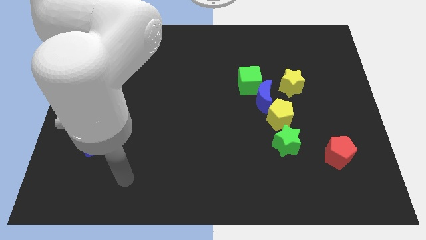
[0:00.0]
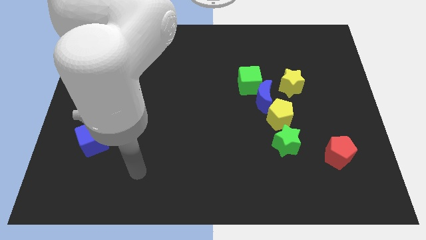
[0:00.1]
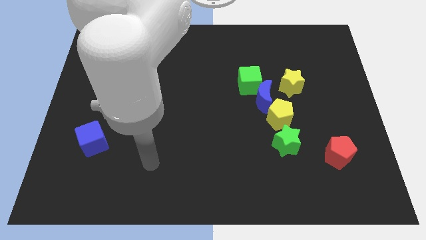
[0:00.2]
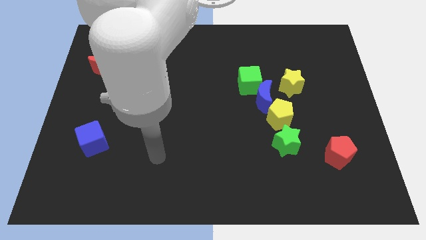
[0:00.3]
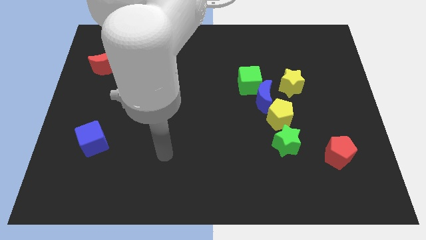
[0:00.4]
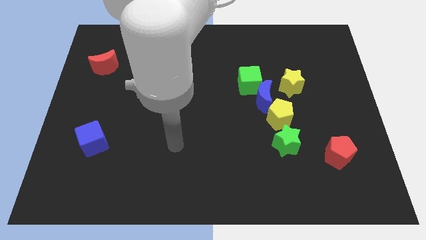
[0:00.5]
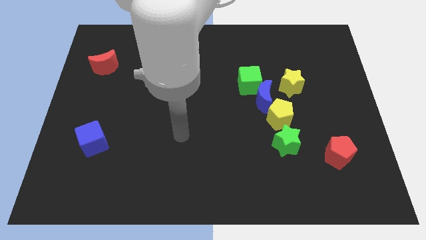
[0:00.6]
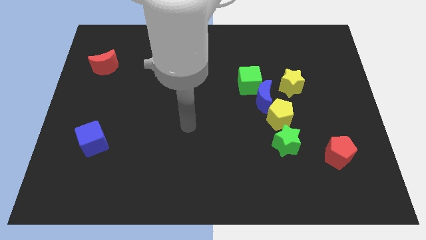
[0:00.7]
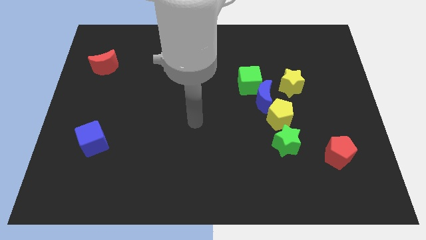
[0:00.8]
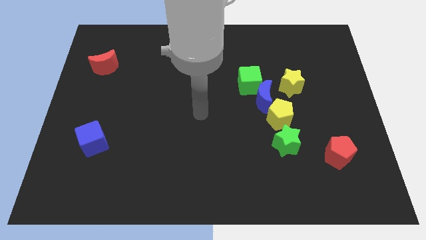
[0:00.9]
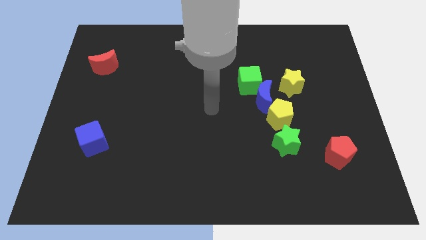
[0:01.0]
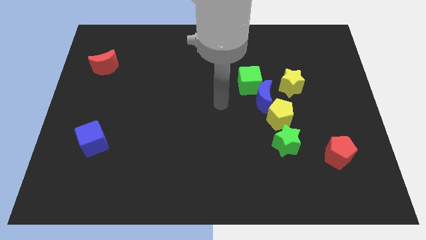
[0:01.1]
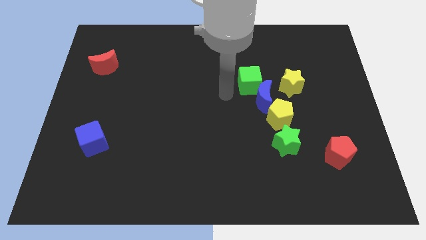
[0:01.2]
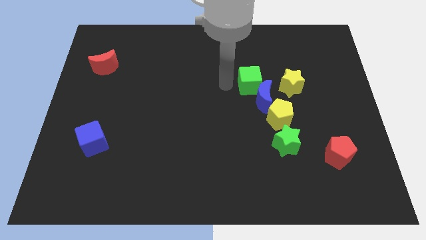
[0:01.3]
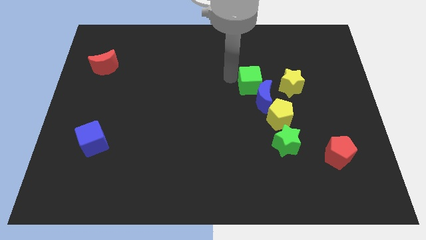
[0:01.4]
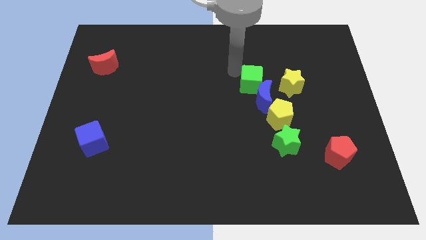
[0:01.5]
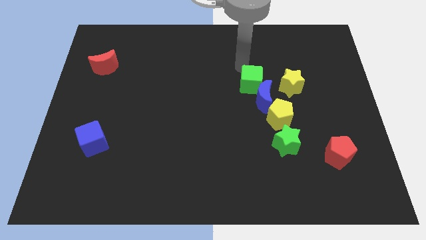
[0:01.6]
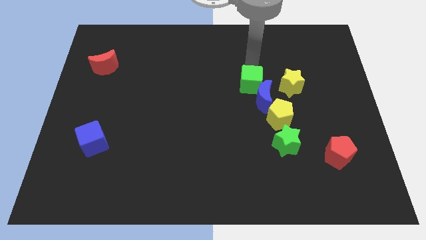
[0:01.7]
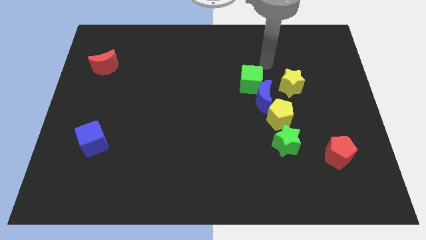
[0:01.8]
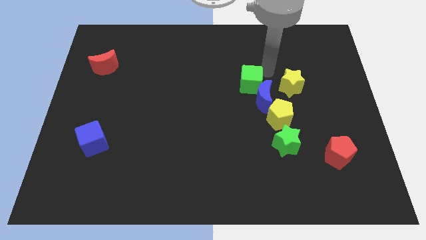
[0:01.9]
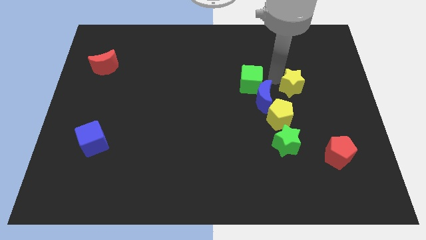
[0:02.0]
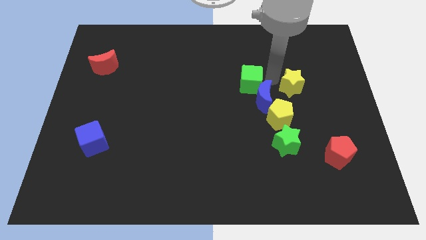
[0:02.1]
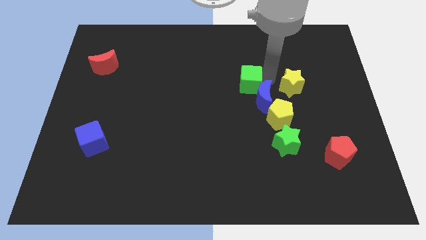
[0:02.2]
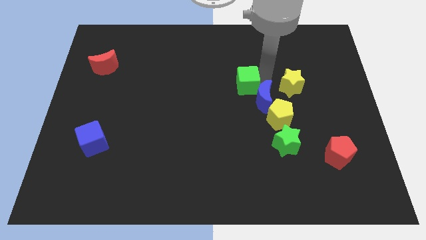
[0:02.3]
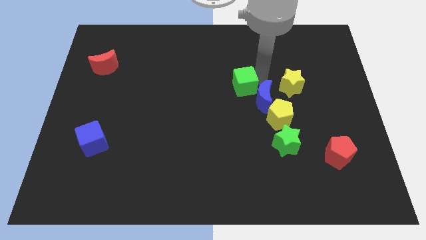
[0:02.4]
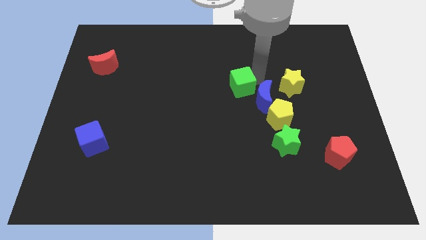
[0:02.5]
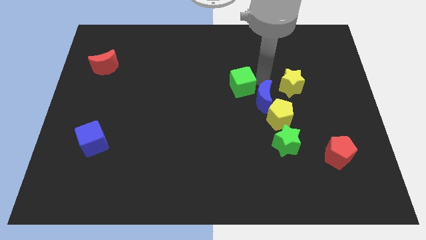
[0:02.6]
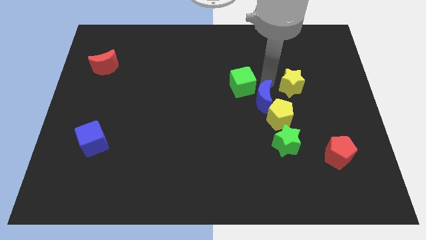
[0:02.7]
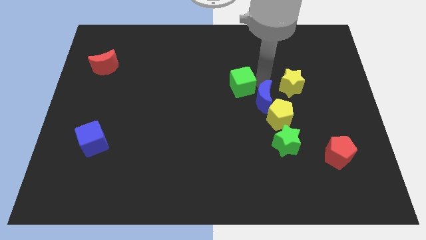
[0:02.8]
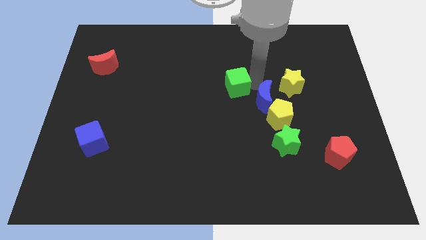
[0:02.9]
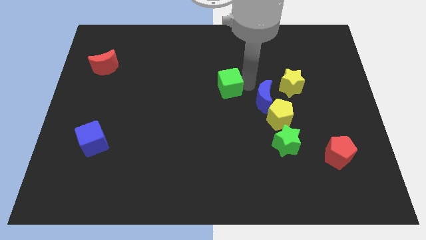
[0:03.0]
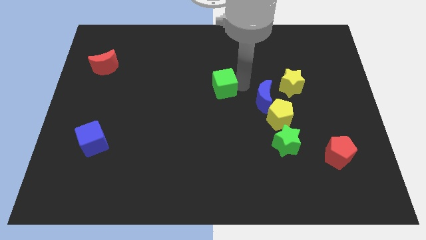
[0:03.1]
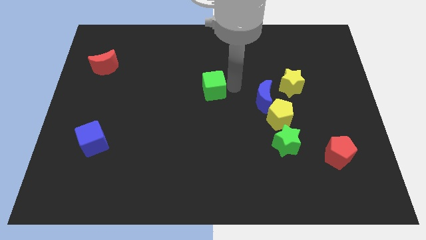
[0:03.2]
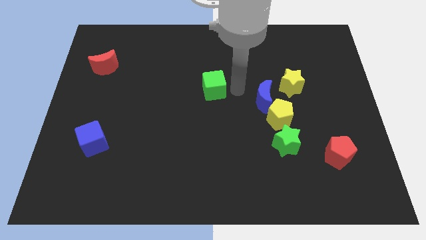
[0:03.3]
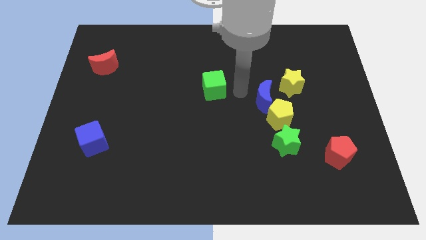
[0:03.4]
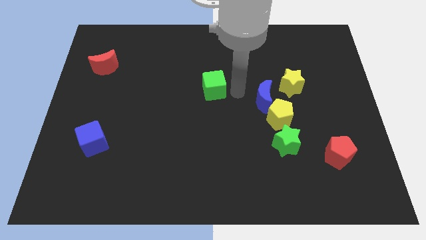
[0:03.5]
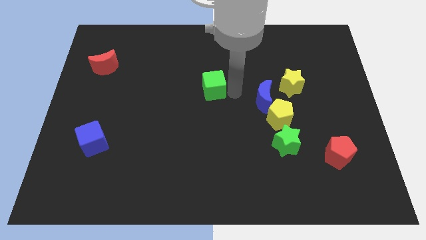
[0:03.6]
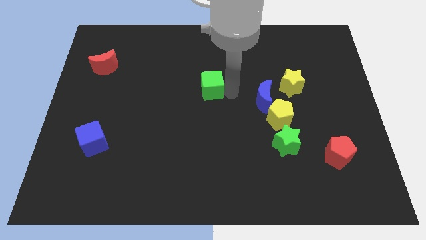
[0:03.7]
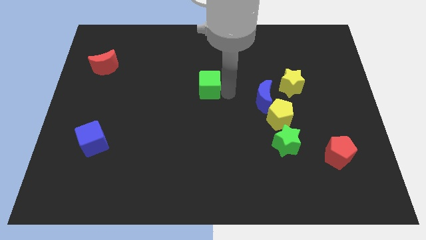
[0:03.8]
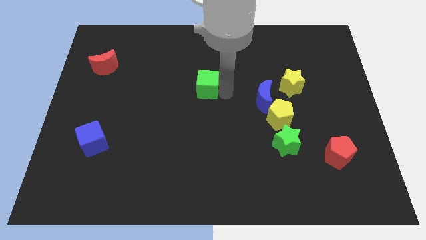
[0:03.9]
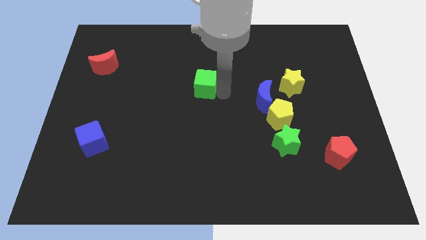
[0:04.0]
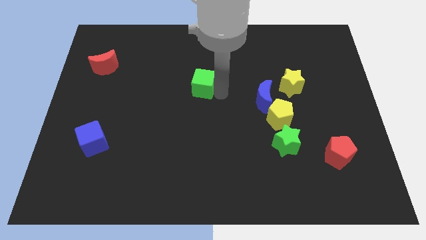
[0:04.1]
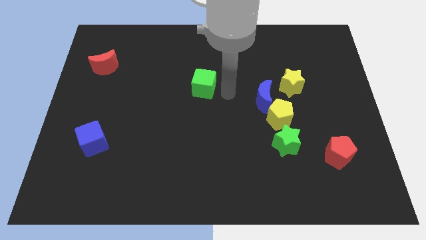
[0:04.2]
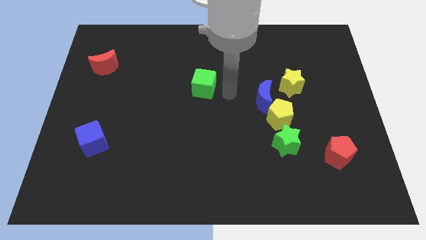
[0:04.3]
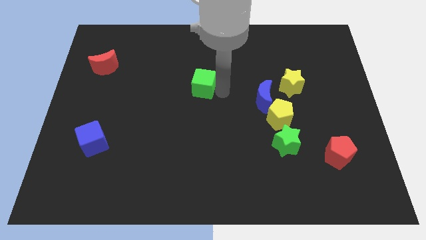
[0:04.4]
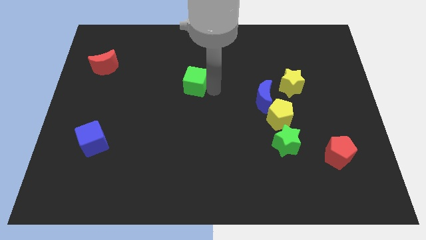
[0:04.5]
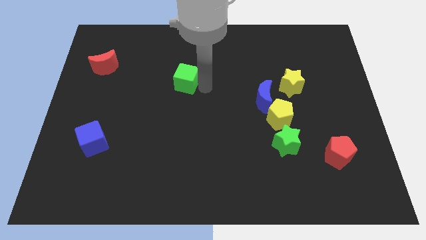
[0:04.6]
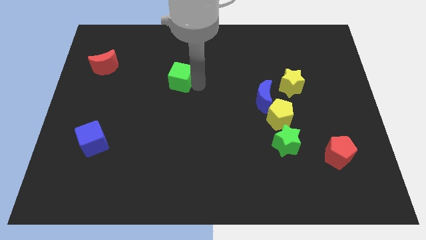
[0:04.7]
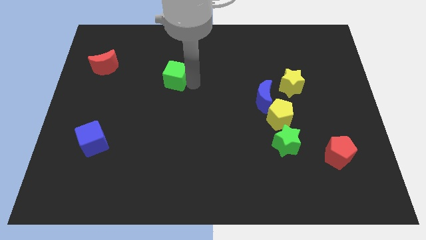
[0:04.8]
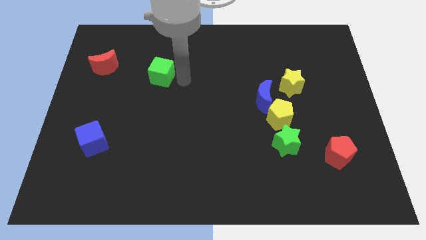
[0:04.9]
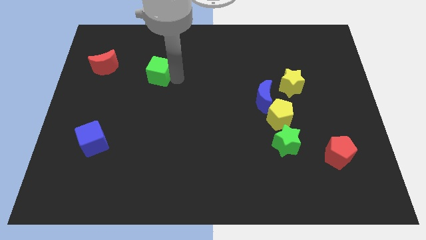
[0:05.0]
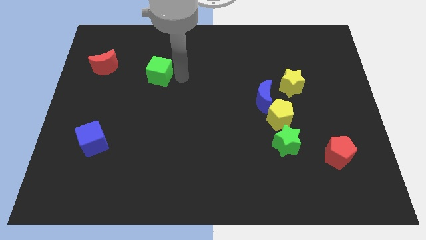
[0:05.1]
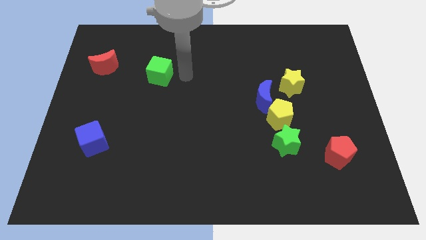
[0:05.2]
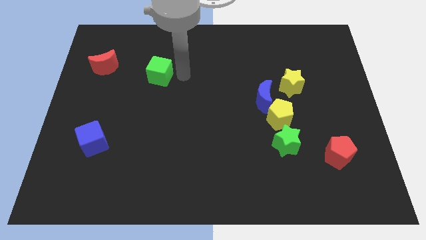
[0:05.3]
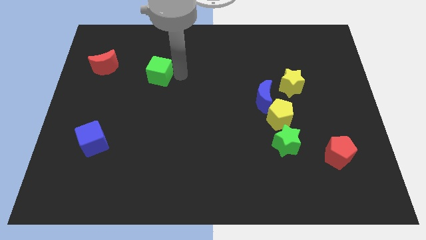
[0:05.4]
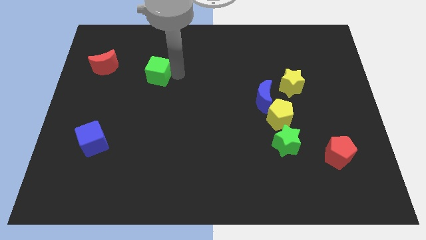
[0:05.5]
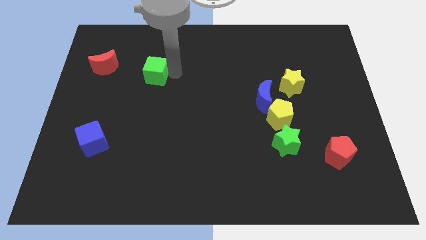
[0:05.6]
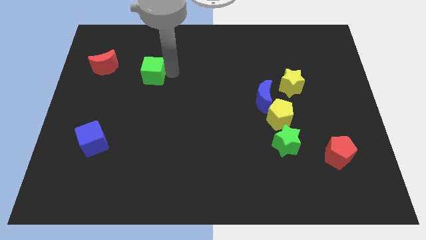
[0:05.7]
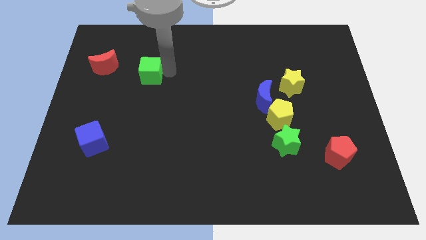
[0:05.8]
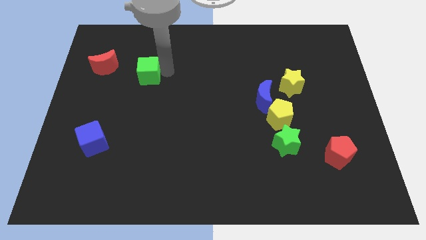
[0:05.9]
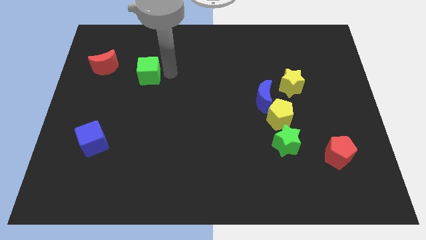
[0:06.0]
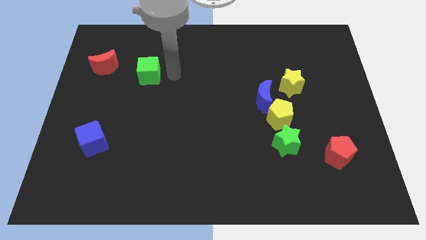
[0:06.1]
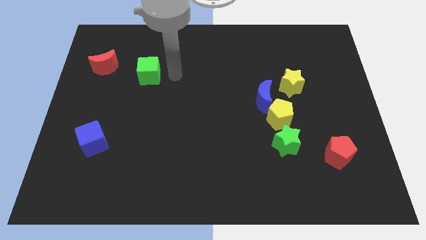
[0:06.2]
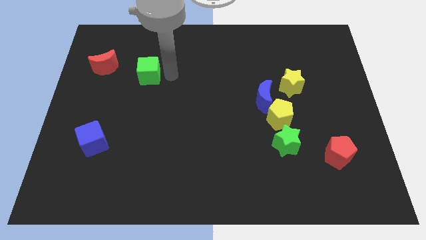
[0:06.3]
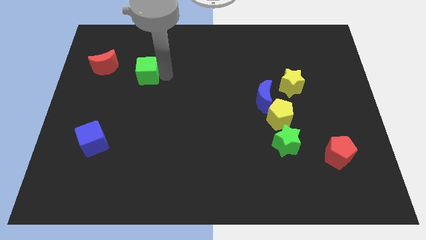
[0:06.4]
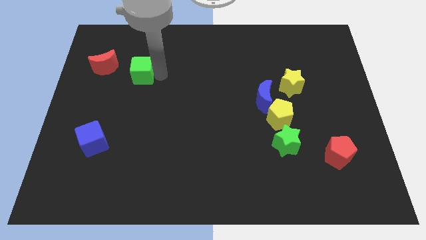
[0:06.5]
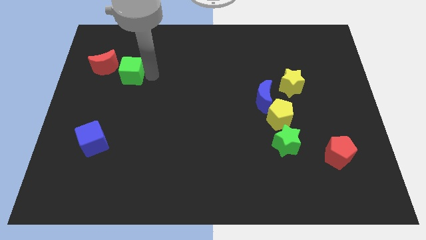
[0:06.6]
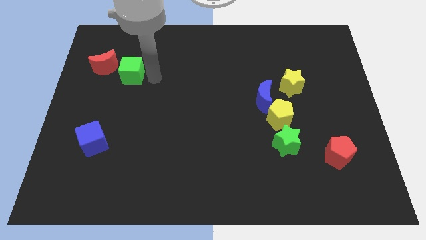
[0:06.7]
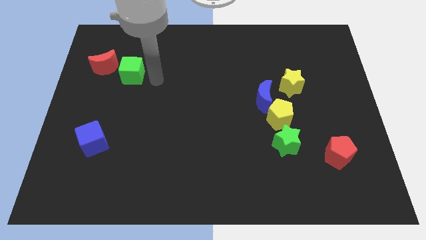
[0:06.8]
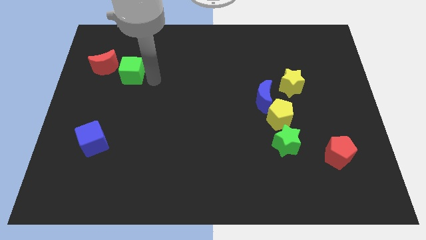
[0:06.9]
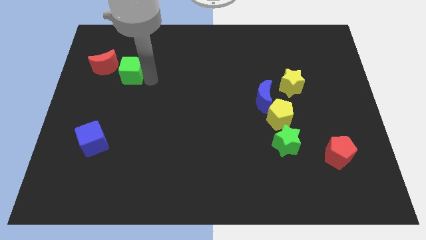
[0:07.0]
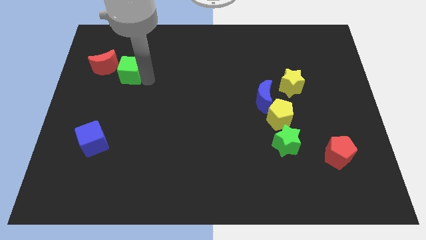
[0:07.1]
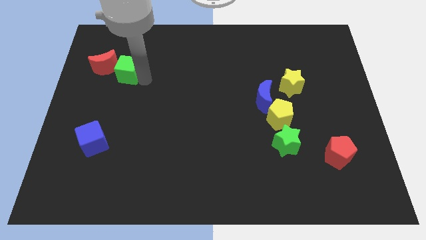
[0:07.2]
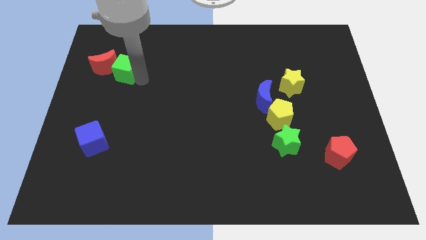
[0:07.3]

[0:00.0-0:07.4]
put the green cube towards the red moon
